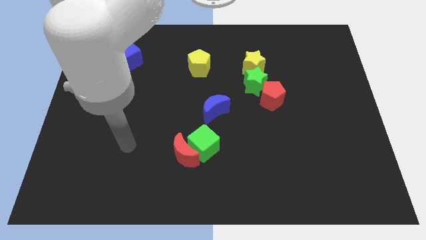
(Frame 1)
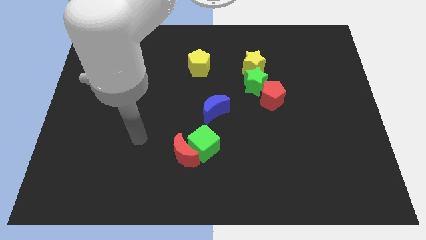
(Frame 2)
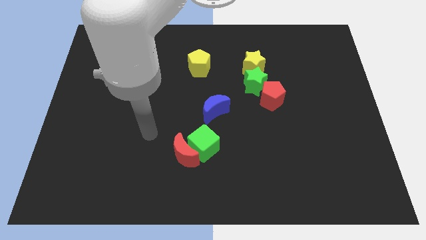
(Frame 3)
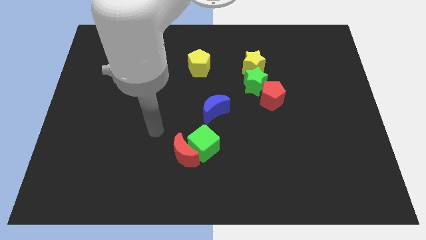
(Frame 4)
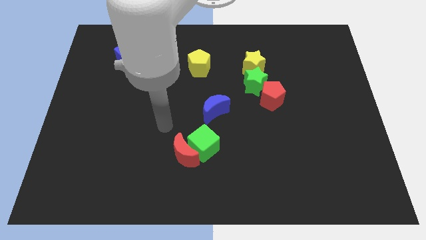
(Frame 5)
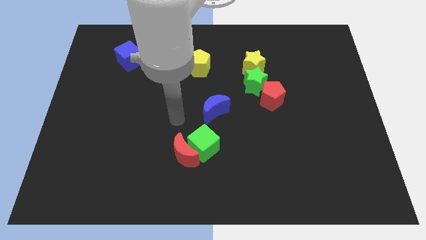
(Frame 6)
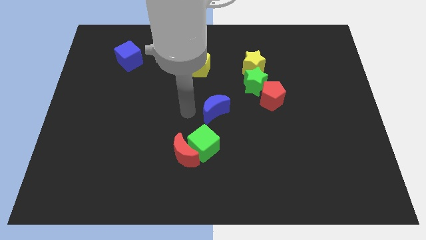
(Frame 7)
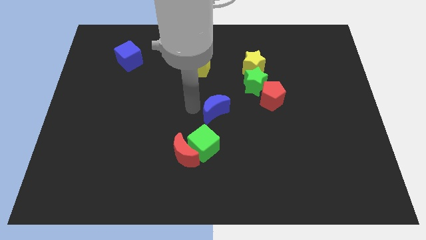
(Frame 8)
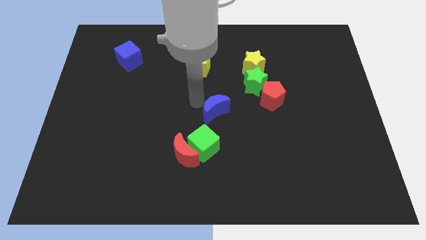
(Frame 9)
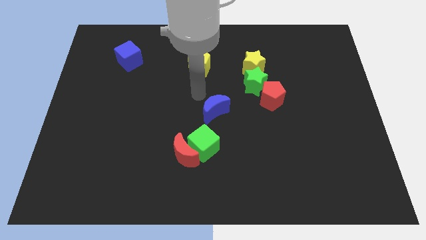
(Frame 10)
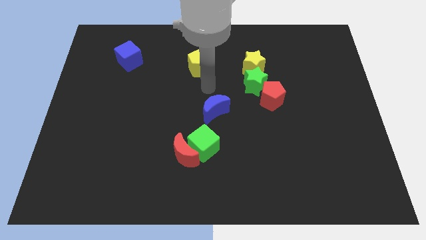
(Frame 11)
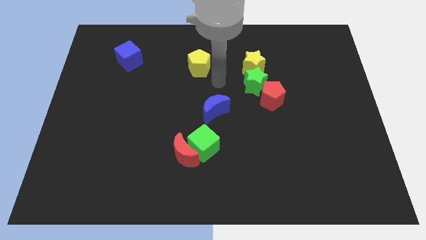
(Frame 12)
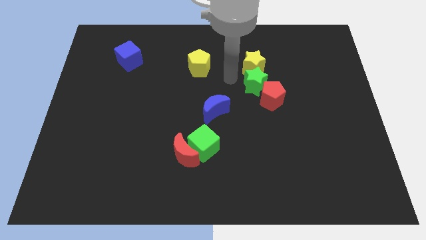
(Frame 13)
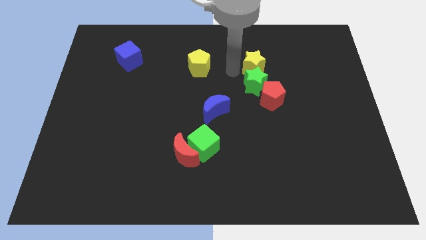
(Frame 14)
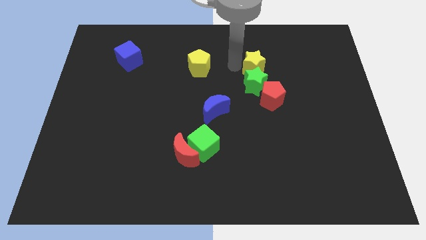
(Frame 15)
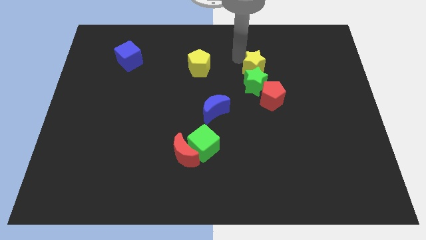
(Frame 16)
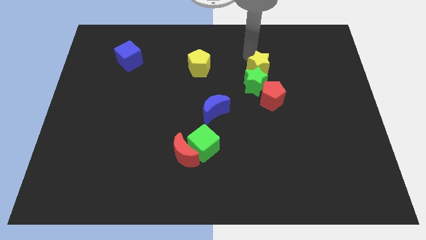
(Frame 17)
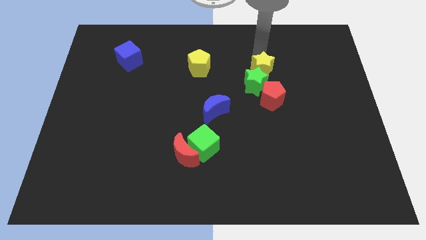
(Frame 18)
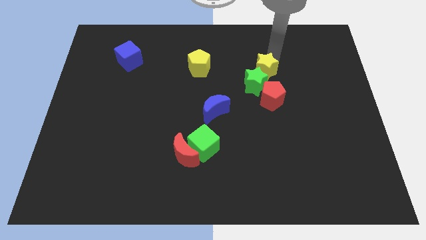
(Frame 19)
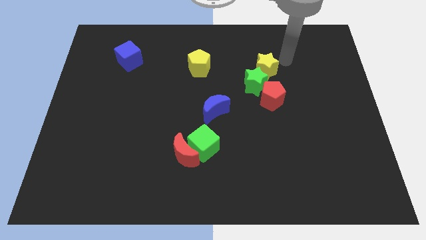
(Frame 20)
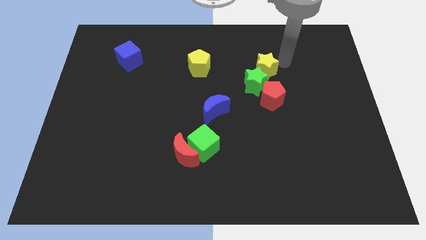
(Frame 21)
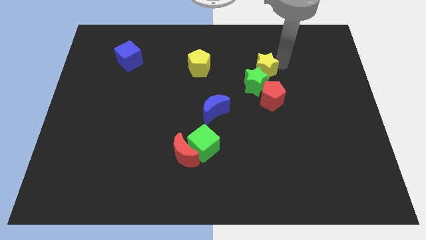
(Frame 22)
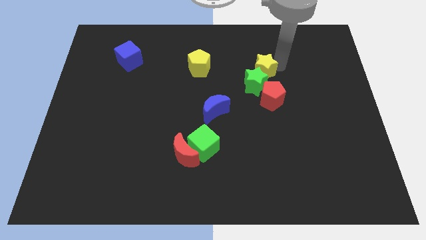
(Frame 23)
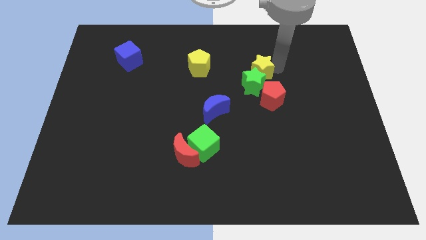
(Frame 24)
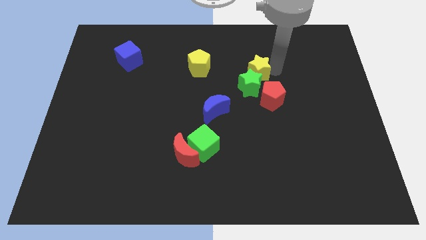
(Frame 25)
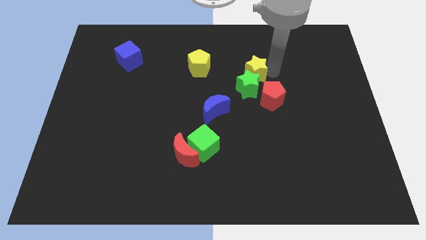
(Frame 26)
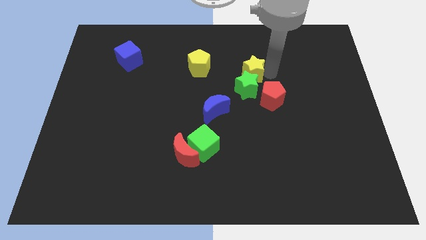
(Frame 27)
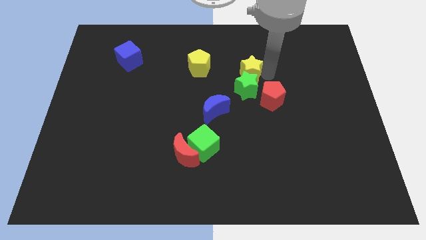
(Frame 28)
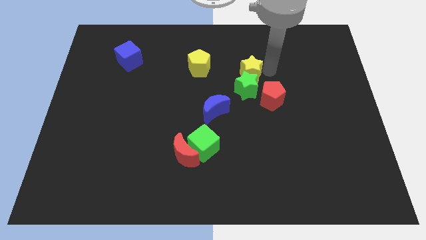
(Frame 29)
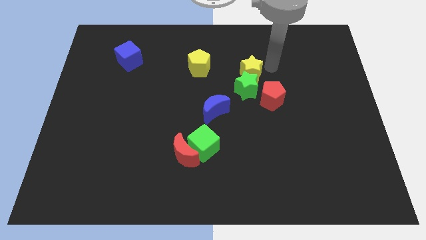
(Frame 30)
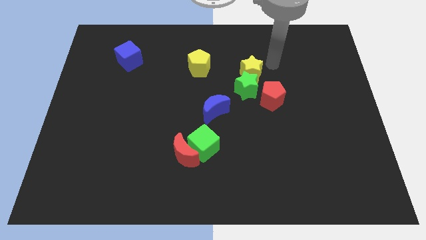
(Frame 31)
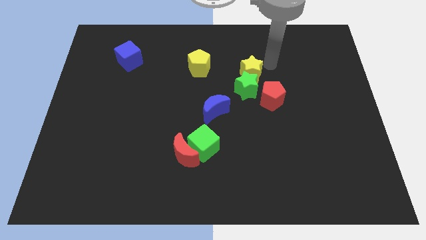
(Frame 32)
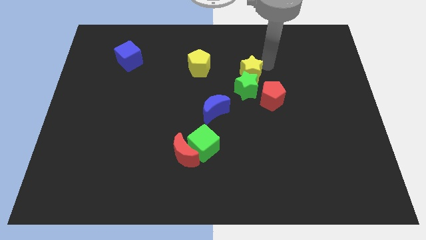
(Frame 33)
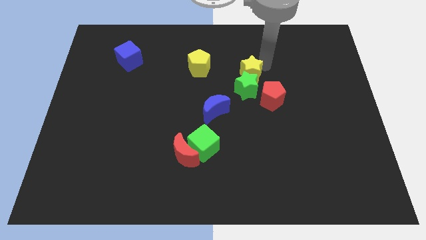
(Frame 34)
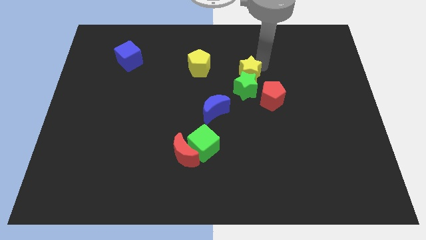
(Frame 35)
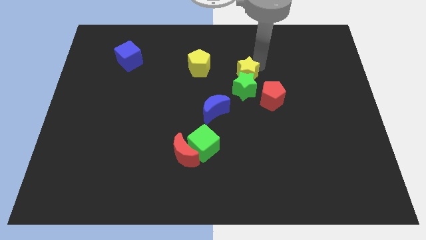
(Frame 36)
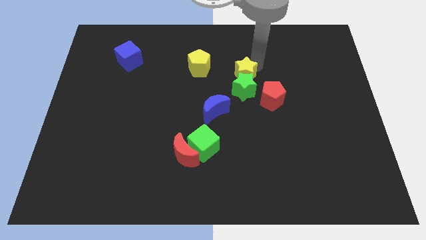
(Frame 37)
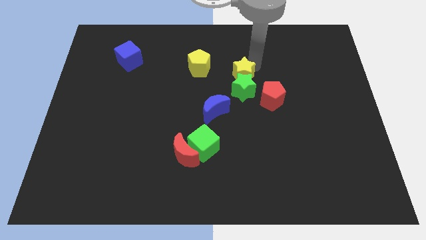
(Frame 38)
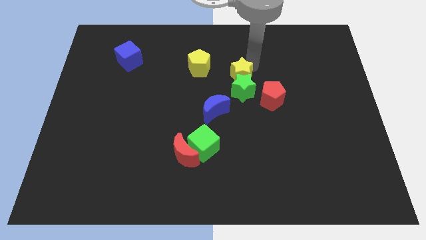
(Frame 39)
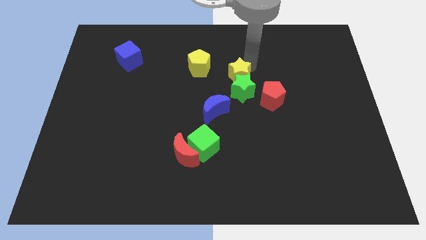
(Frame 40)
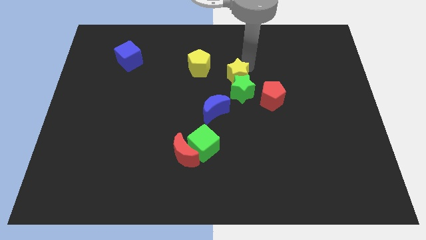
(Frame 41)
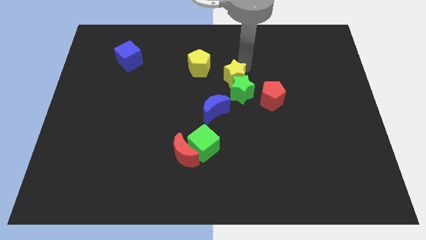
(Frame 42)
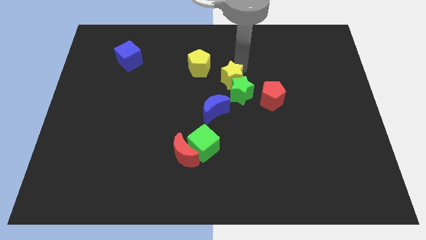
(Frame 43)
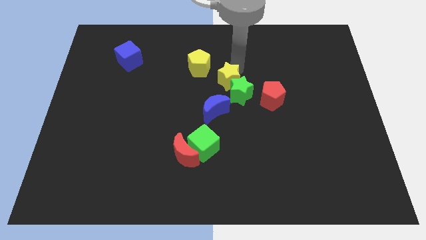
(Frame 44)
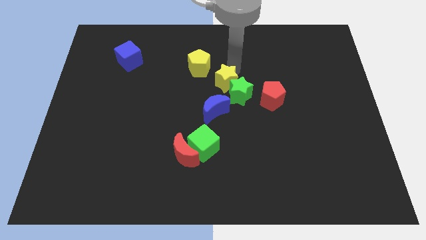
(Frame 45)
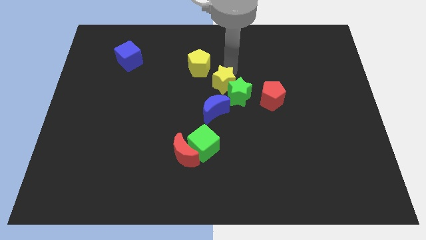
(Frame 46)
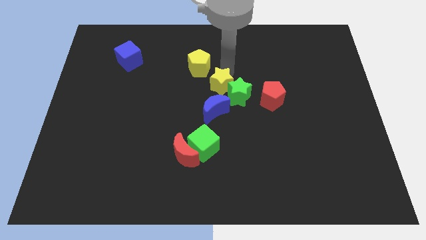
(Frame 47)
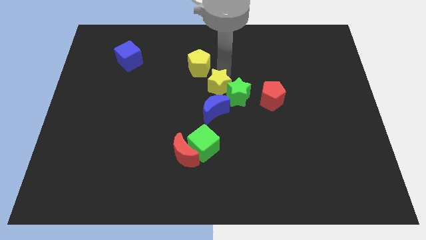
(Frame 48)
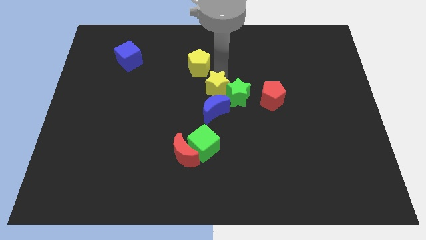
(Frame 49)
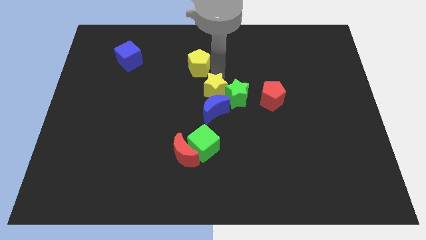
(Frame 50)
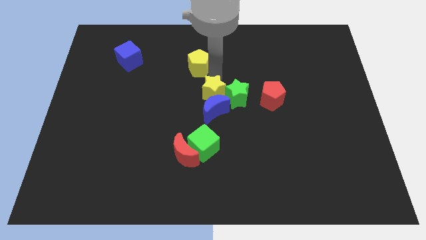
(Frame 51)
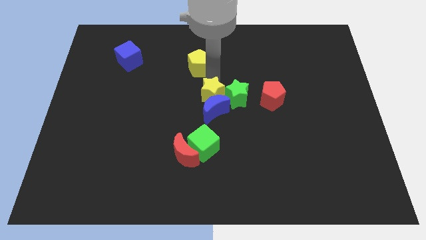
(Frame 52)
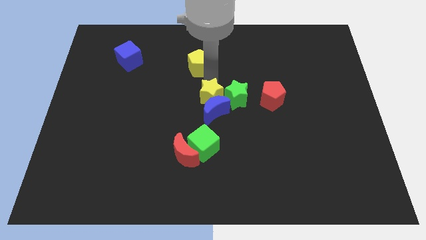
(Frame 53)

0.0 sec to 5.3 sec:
push the yellow star diagonally down and to the left of the green star
